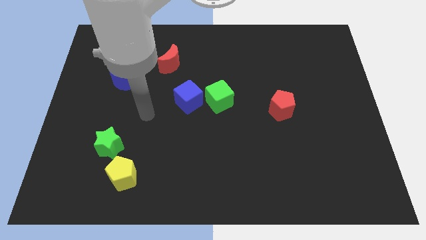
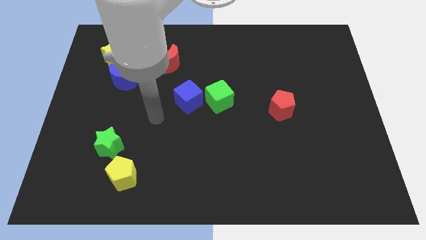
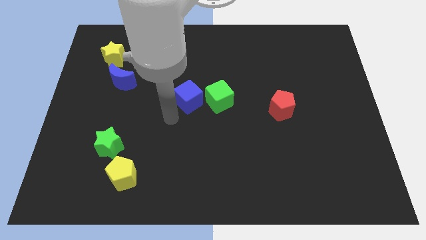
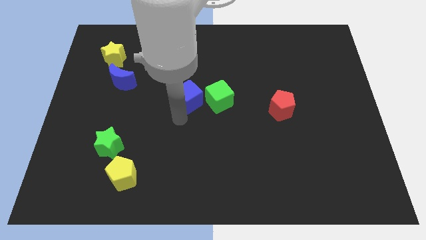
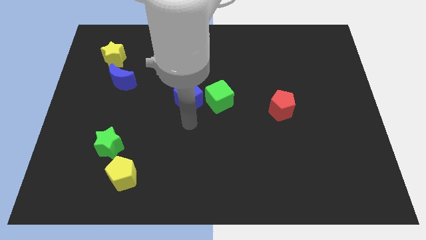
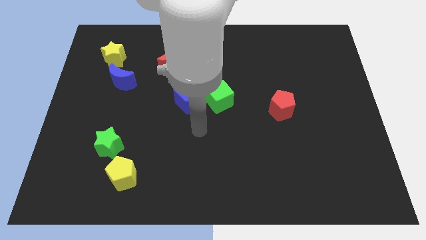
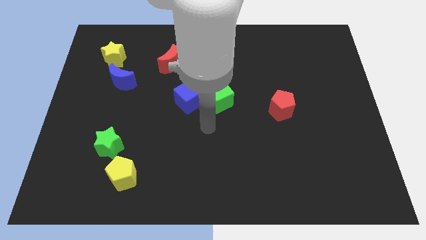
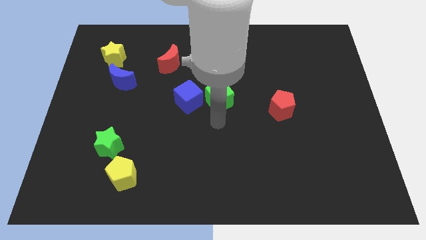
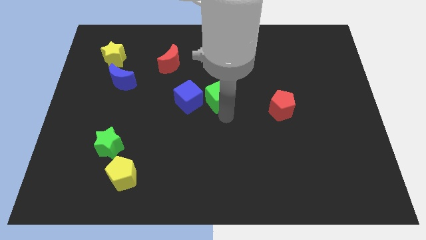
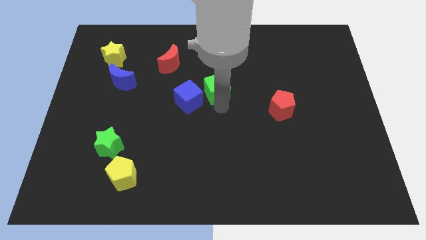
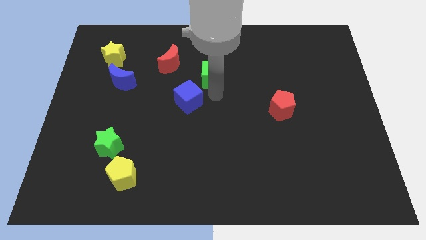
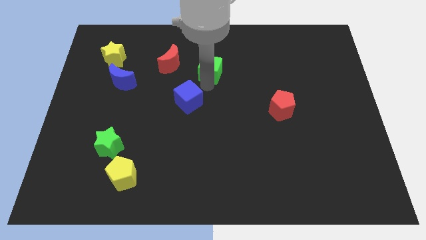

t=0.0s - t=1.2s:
pull the blue cube apart from the green cube

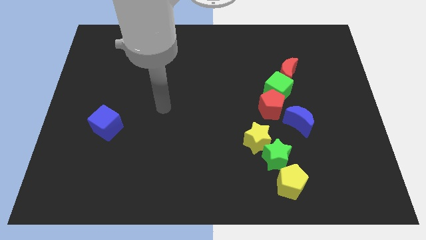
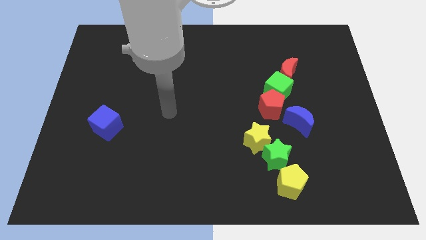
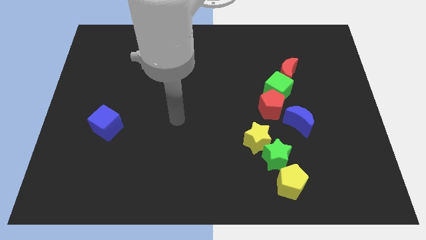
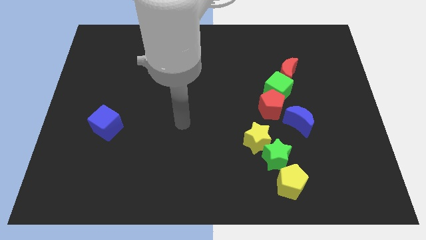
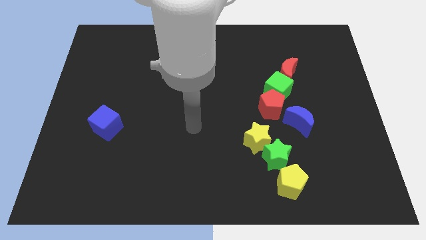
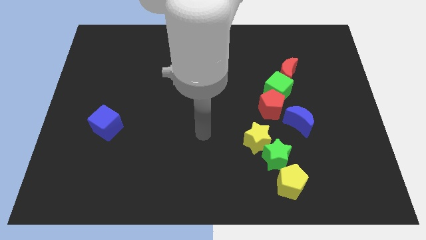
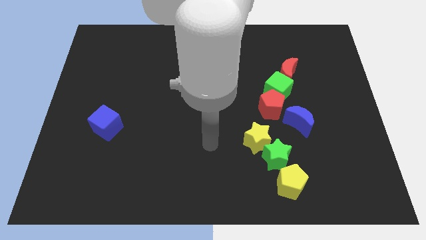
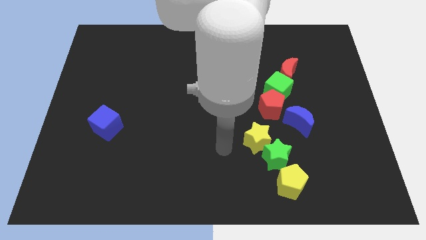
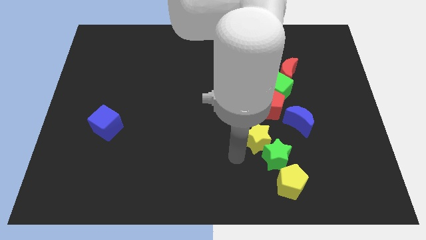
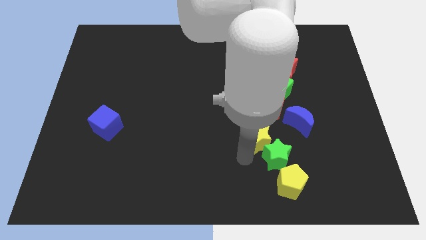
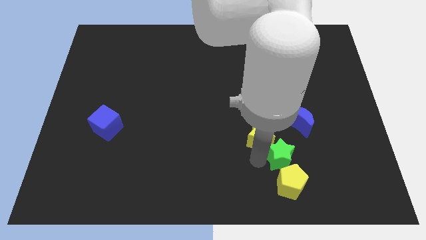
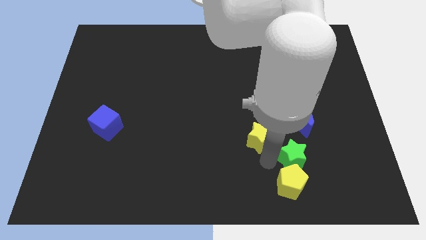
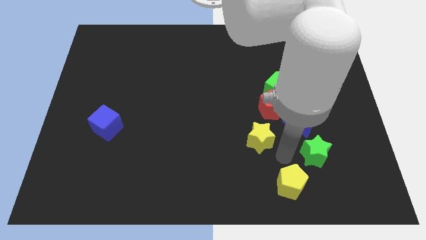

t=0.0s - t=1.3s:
move the yellow star away from the green star

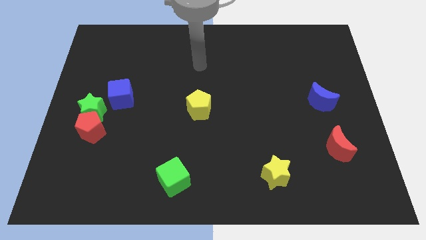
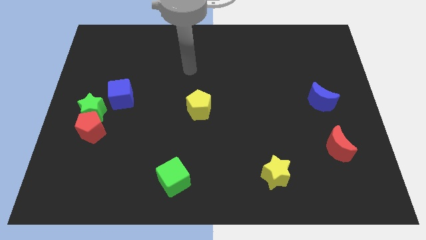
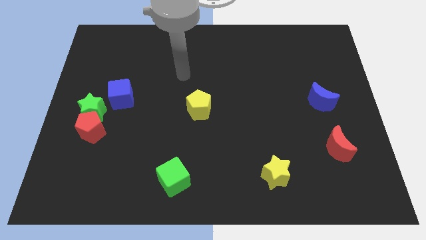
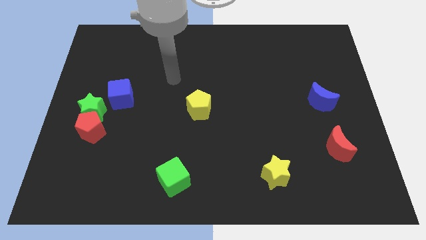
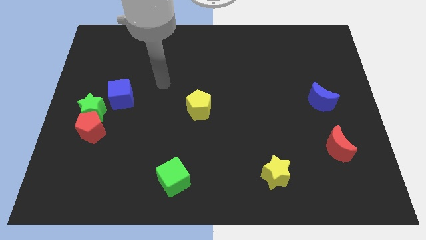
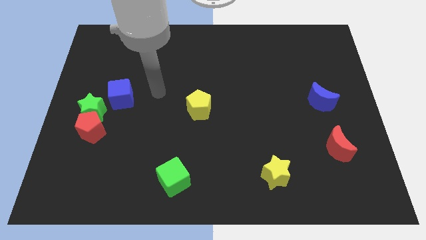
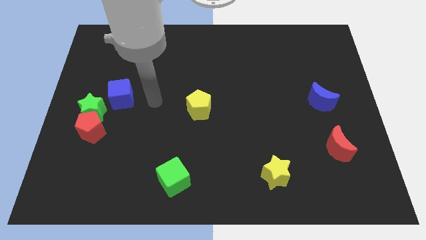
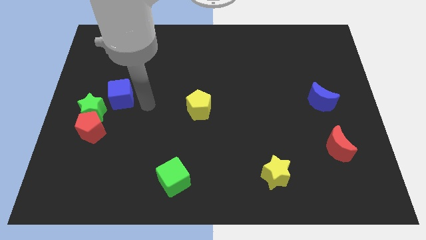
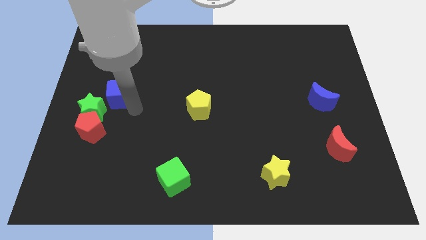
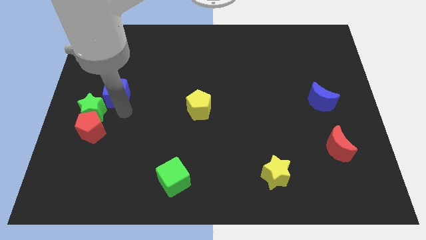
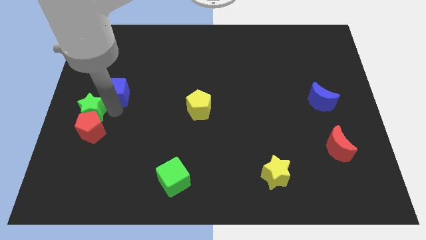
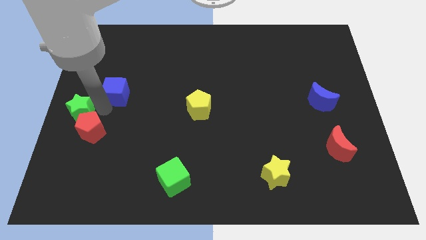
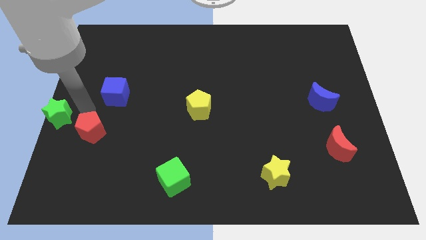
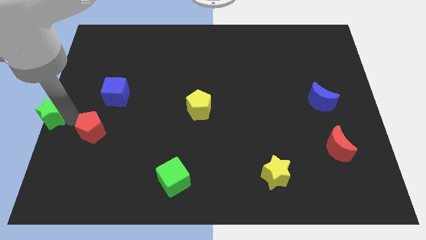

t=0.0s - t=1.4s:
separate the red pentagon from the green star

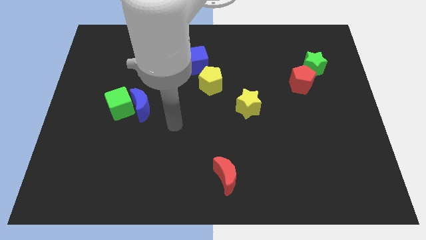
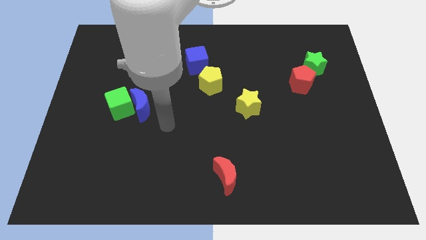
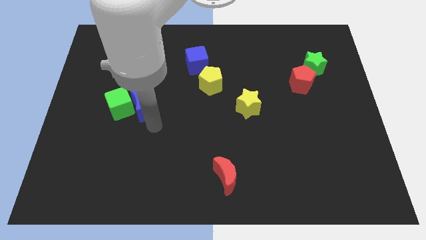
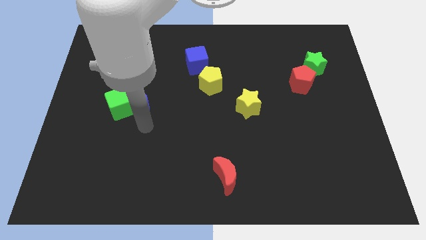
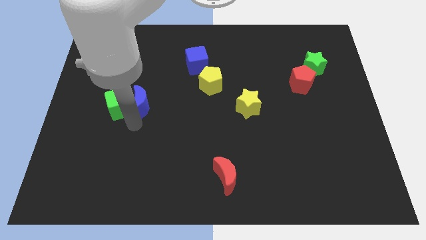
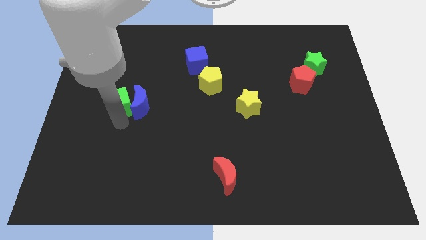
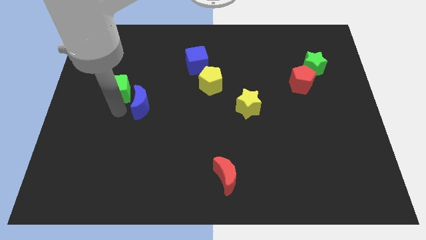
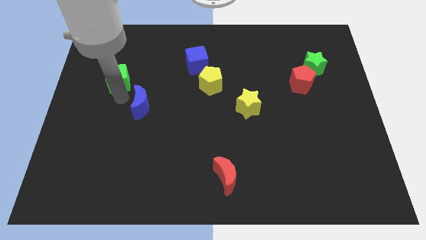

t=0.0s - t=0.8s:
pull the blue moon apart from the green cube

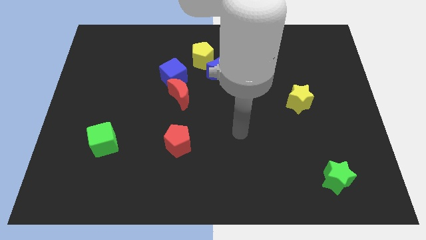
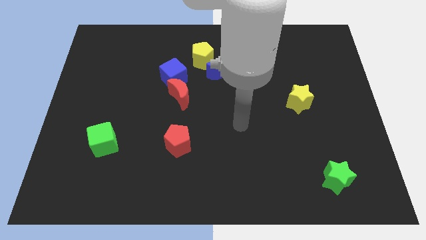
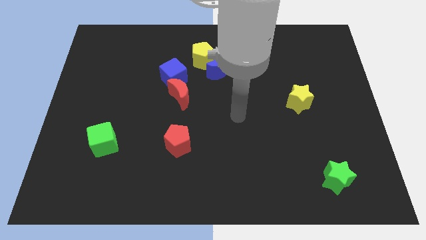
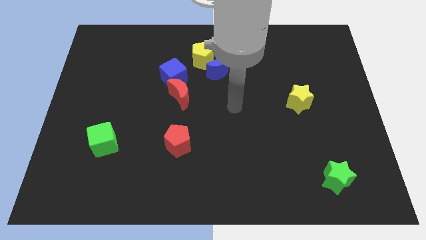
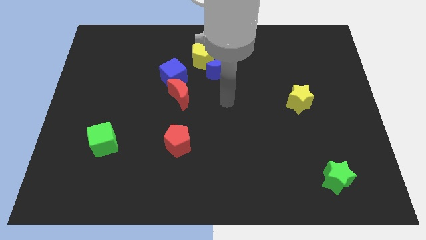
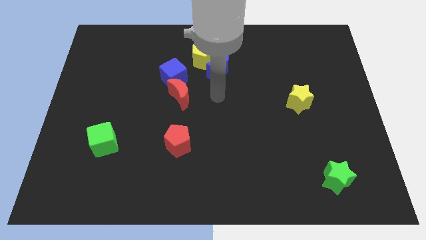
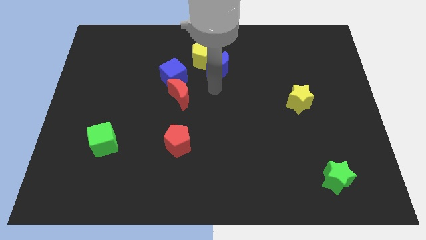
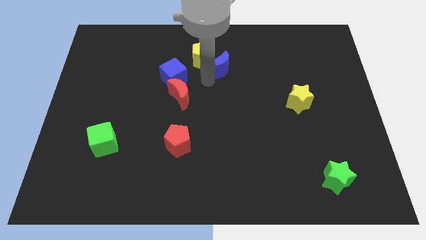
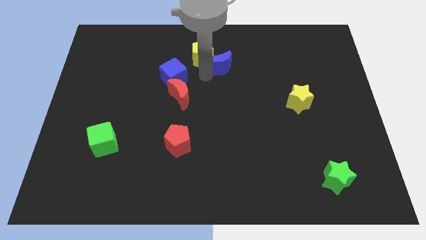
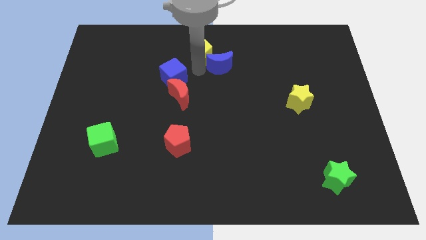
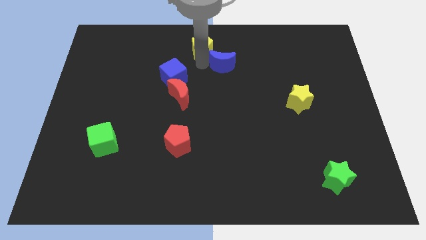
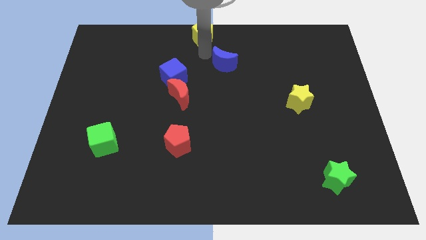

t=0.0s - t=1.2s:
pull the blue moon apart from the yellow pentagon

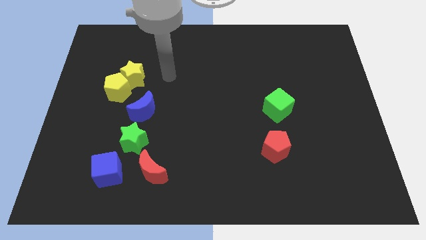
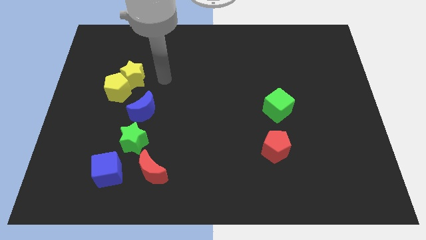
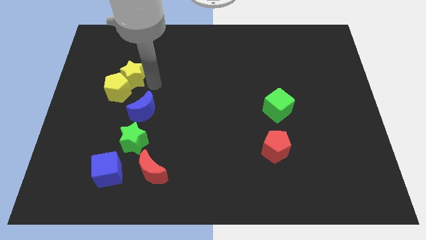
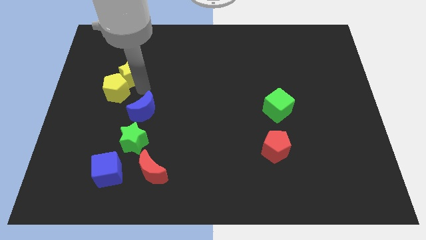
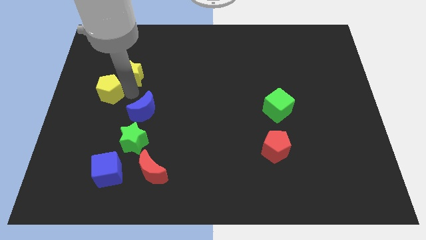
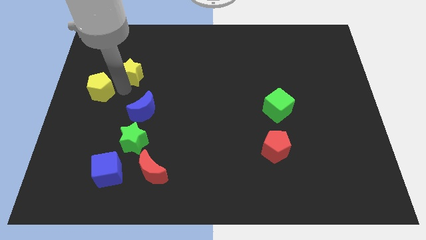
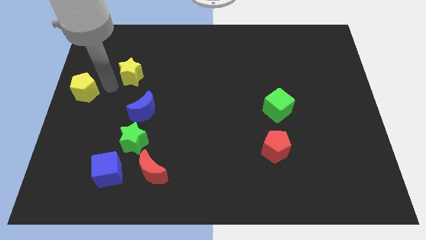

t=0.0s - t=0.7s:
pull the yellow star apart from the yellow pentagon

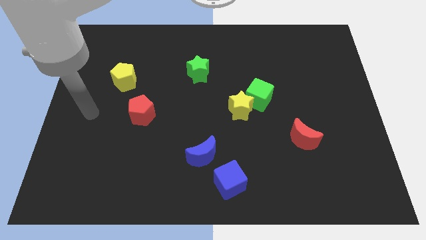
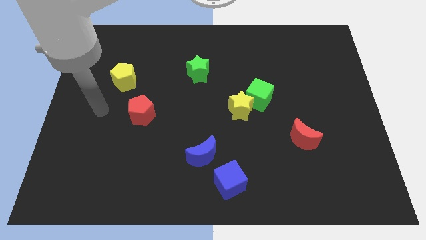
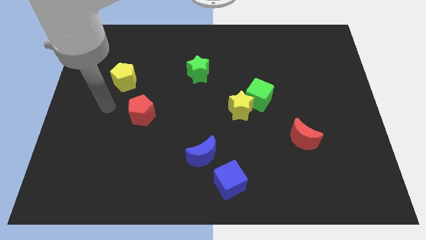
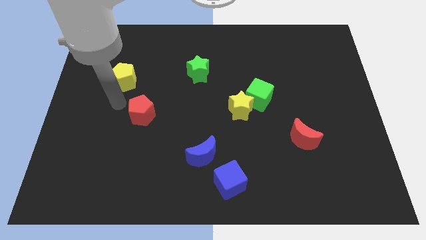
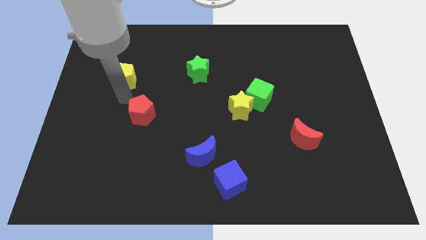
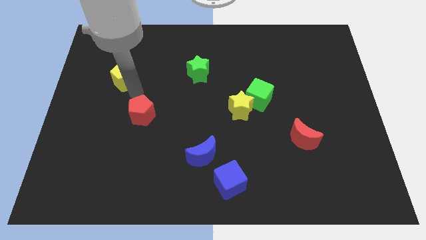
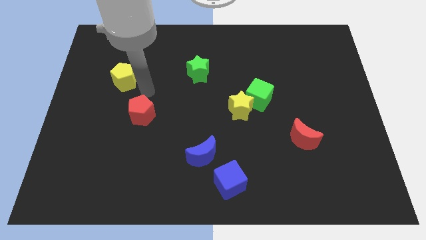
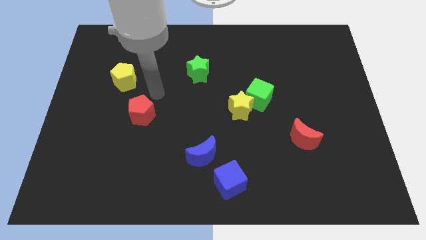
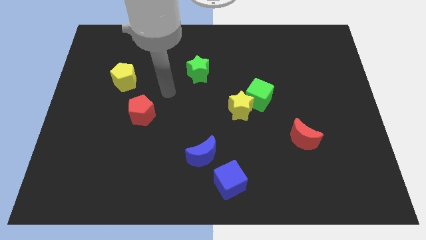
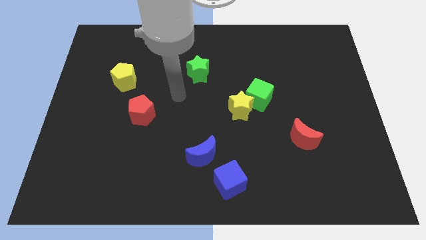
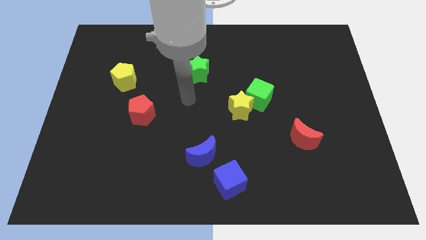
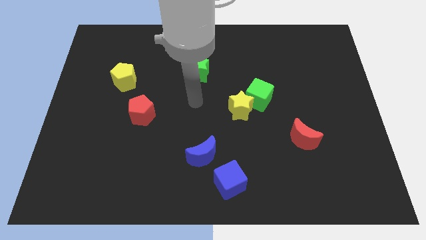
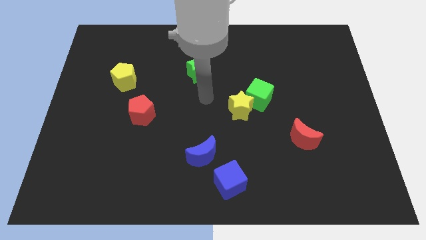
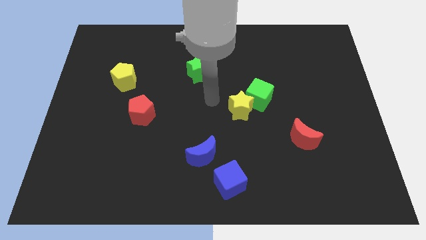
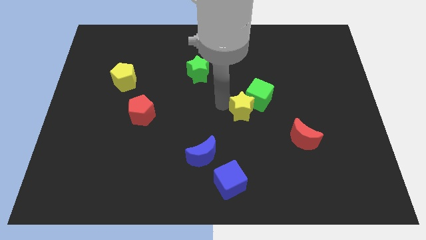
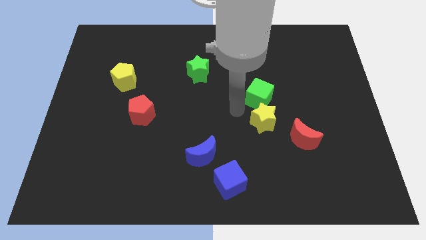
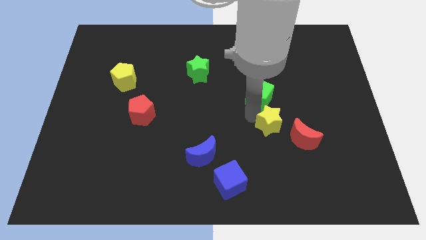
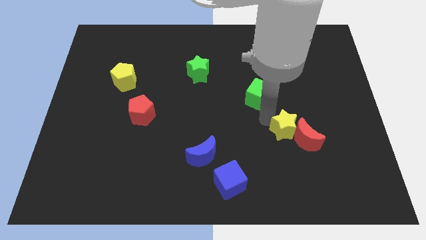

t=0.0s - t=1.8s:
move the green cube away from the yellow star

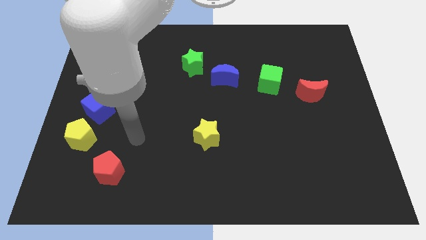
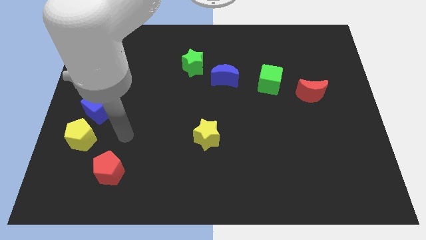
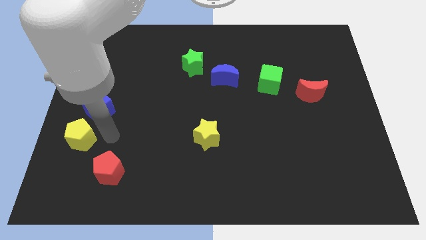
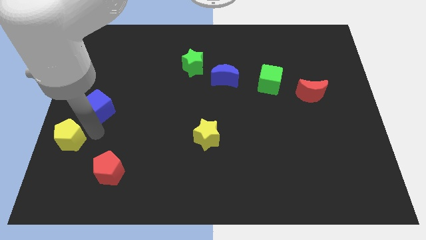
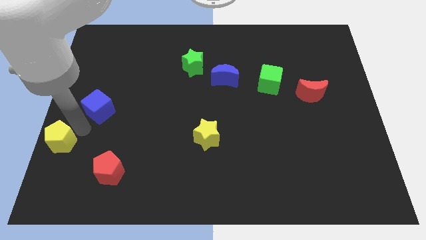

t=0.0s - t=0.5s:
separate the blue cube from the yellow pentagon

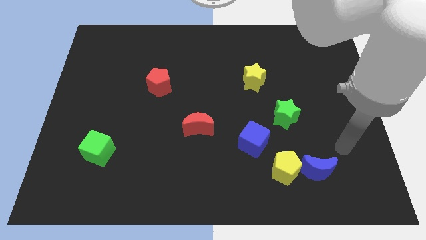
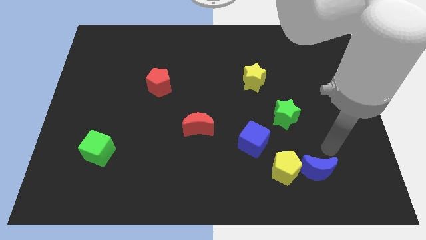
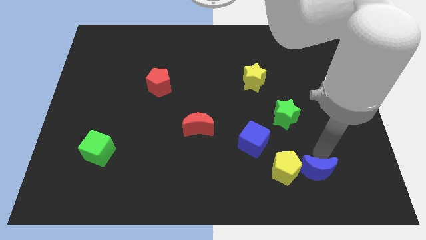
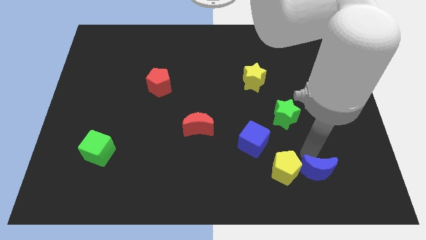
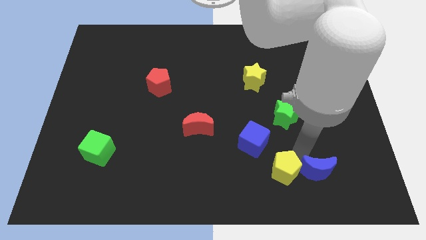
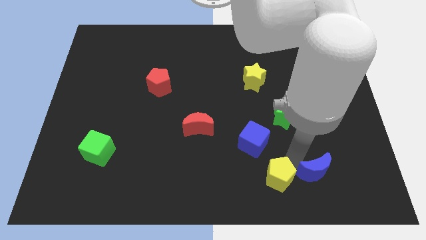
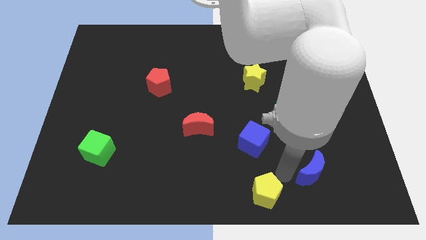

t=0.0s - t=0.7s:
move the blue moon away from the yellow pentagon
